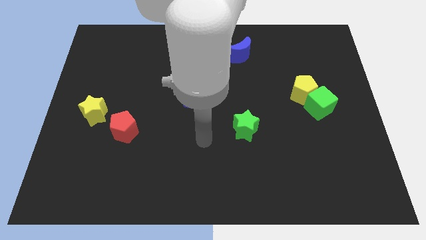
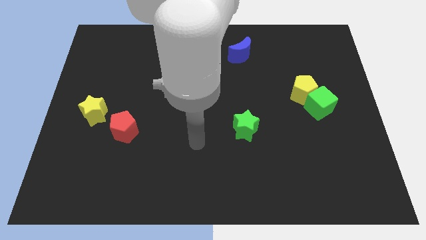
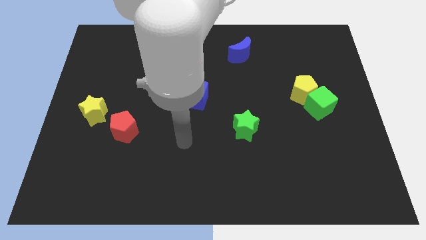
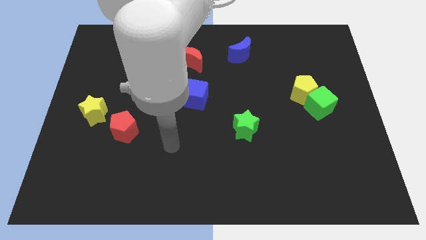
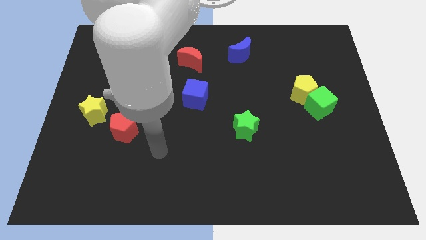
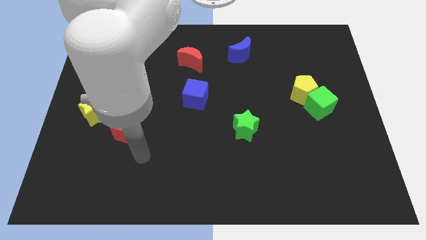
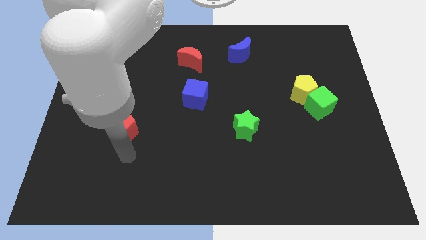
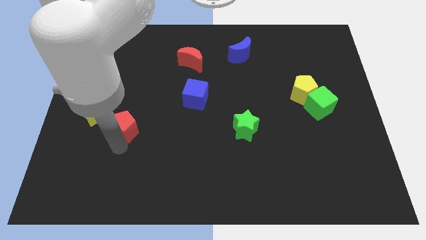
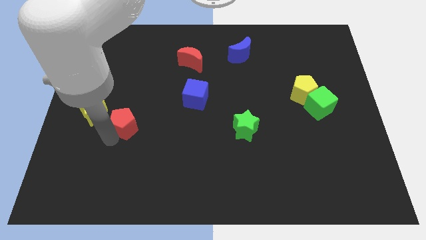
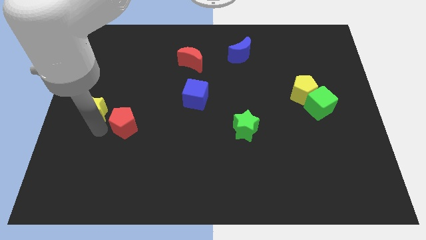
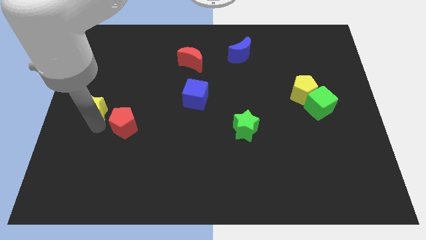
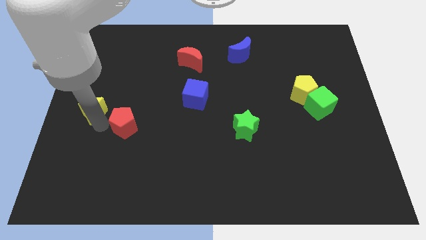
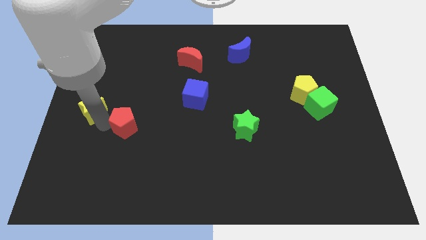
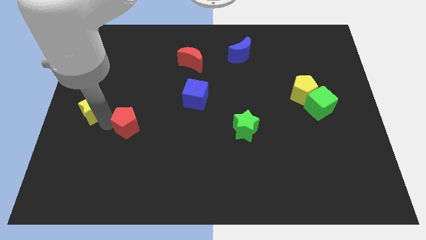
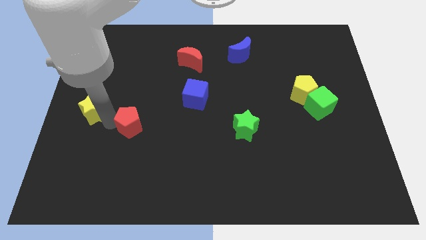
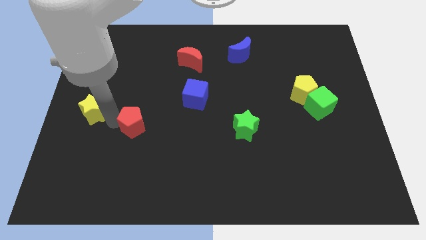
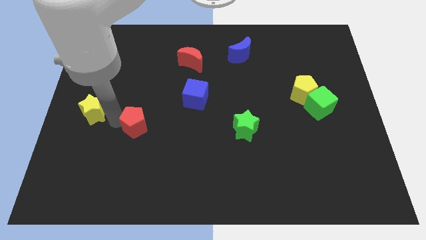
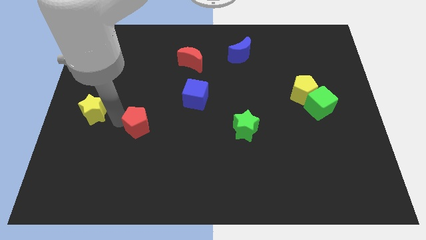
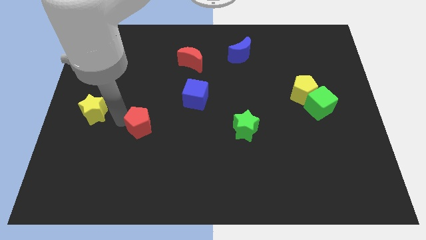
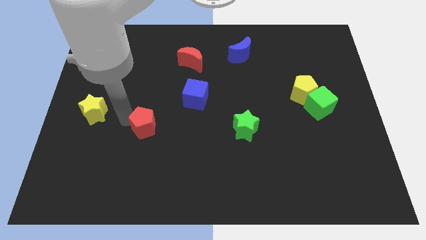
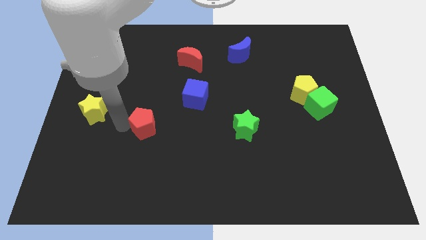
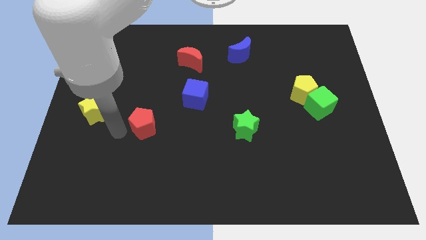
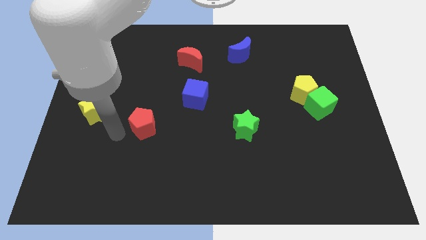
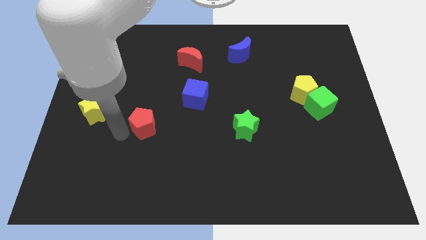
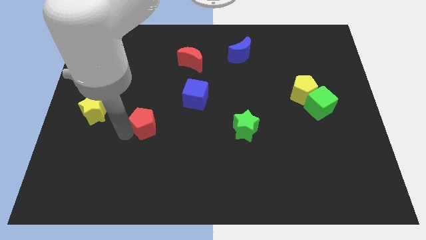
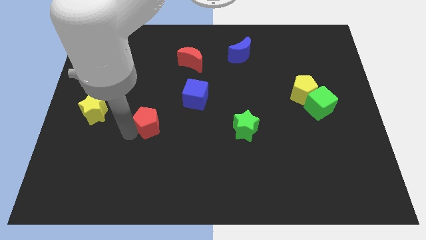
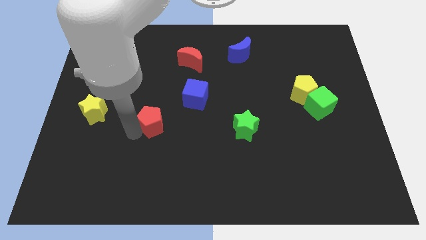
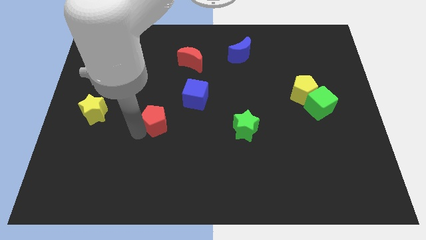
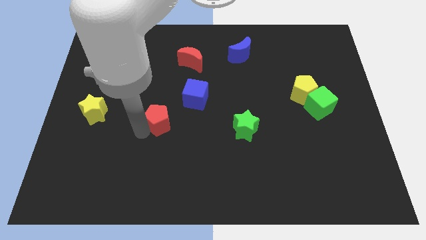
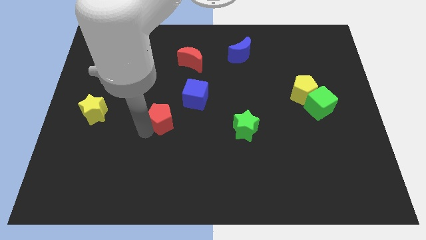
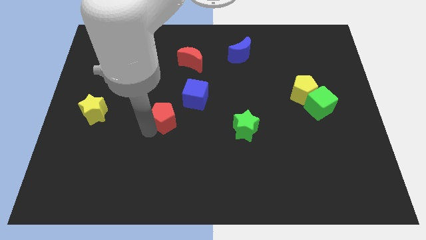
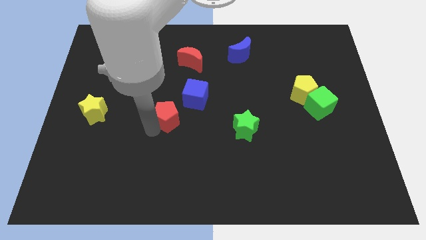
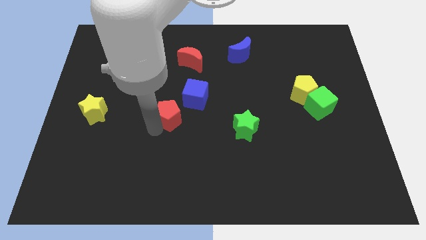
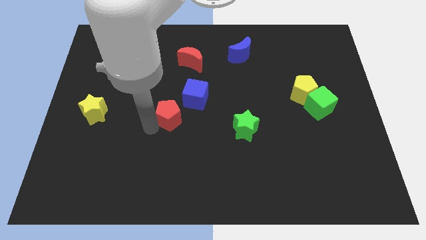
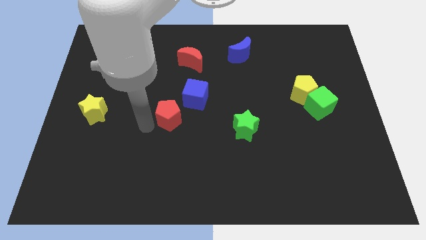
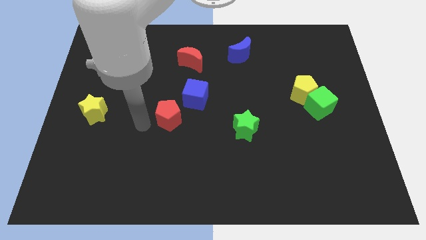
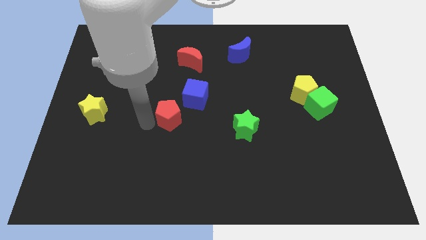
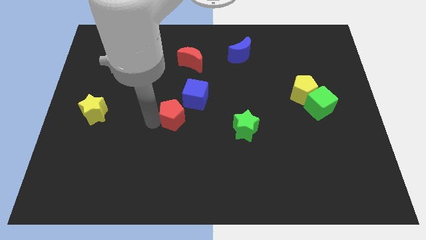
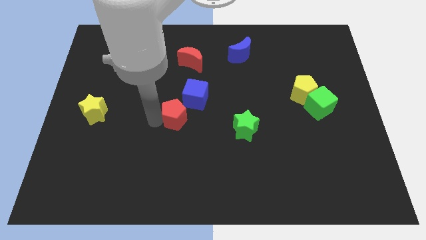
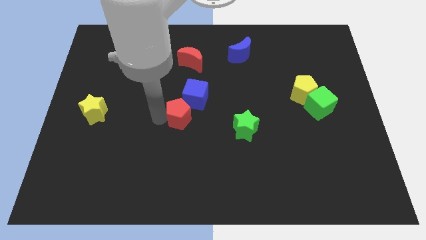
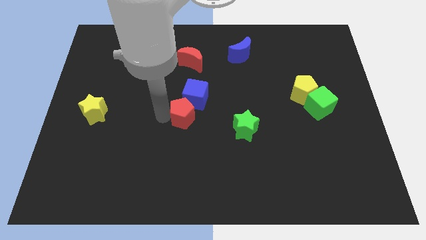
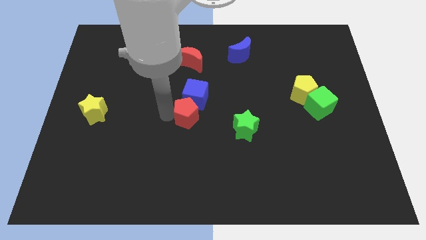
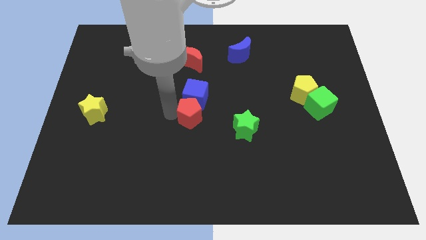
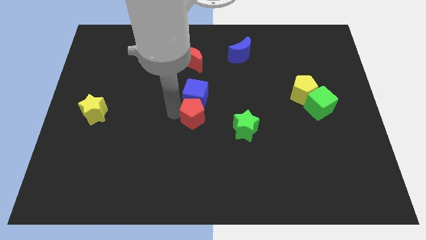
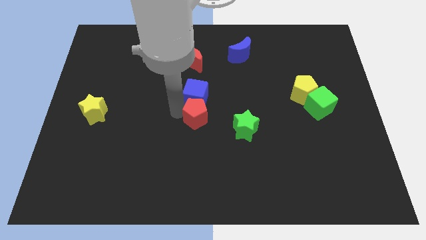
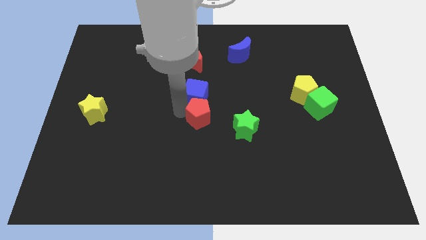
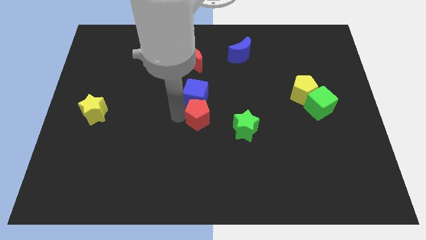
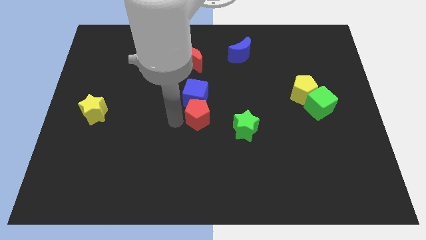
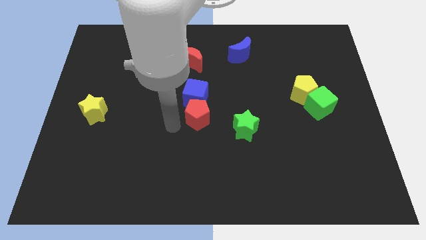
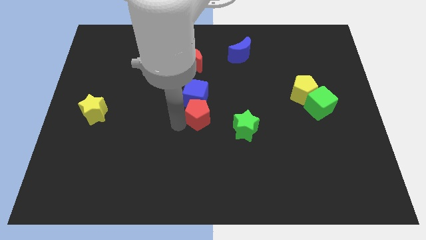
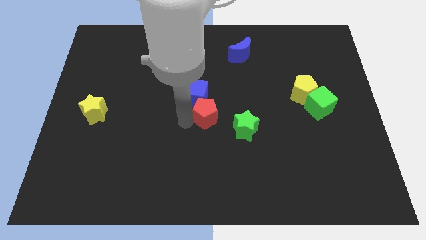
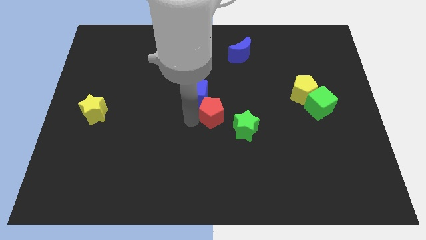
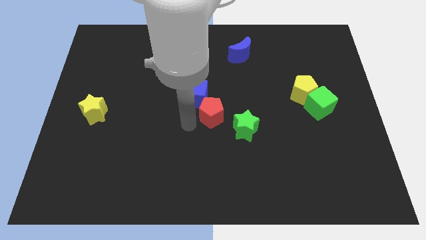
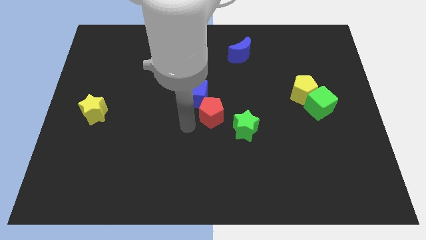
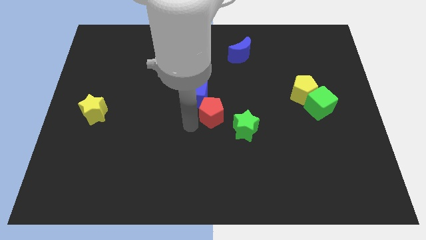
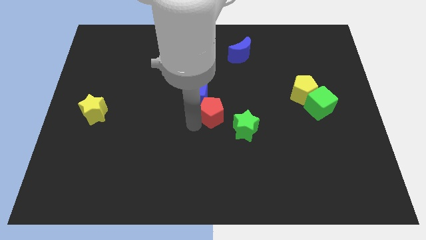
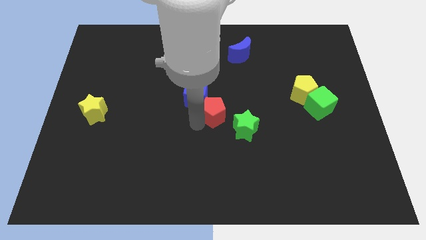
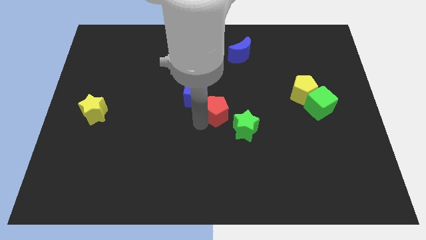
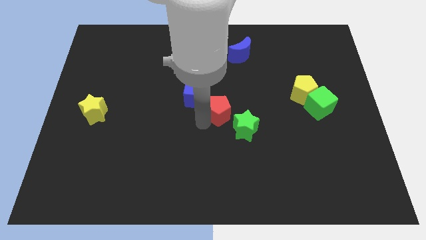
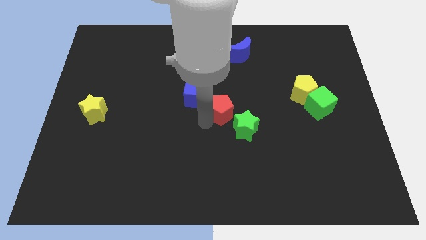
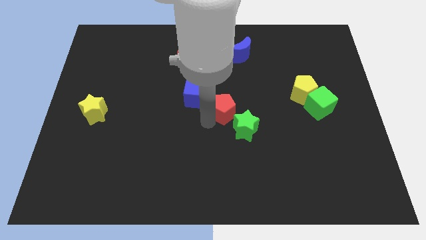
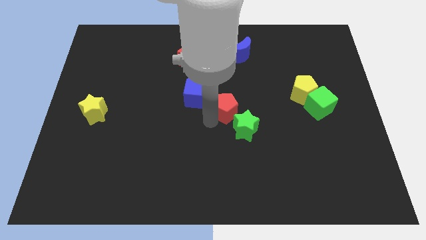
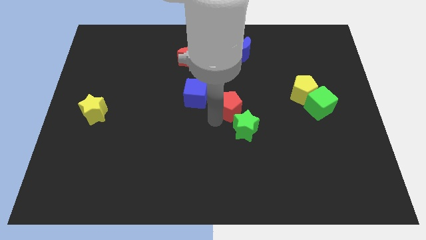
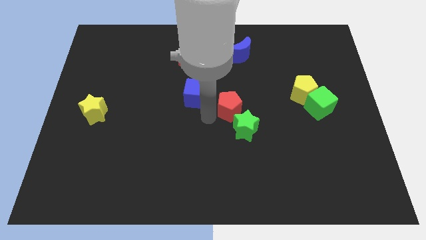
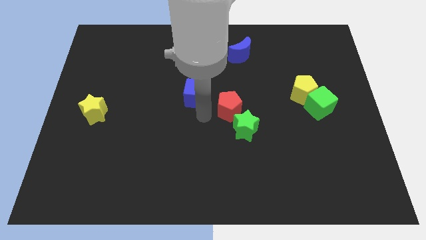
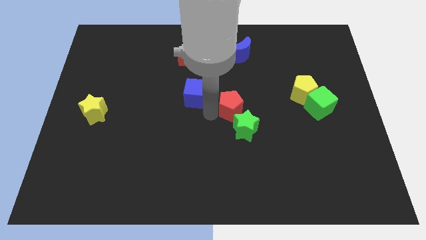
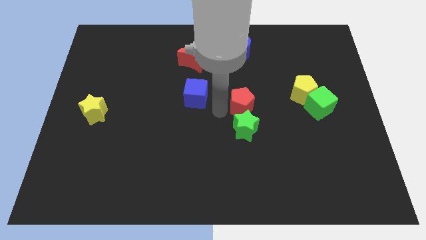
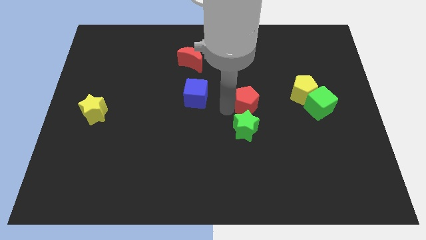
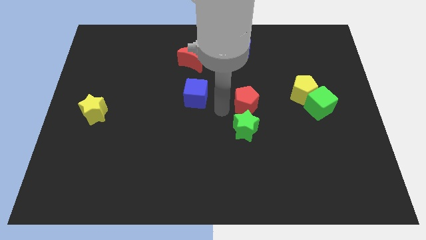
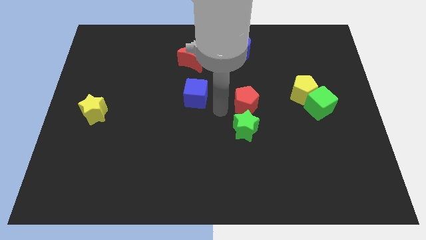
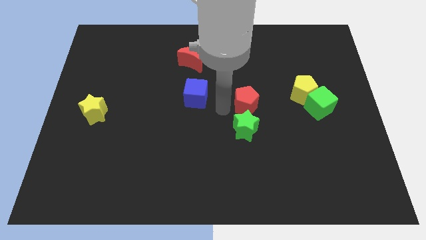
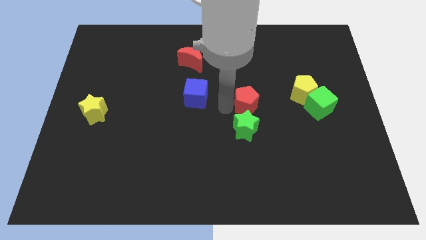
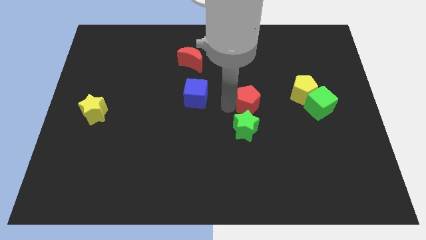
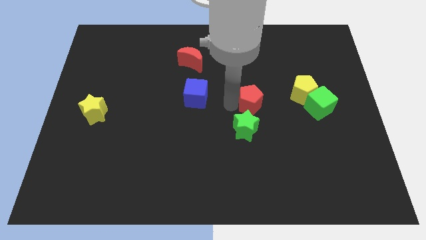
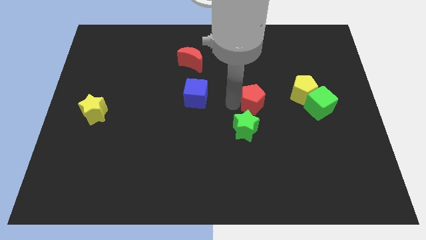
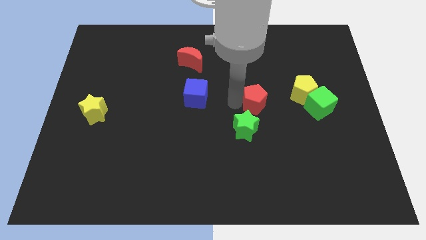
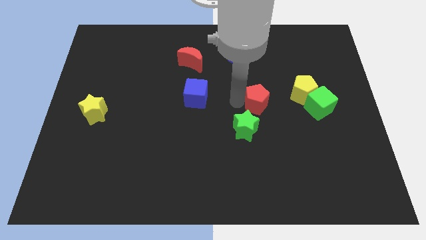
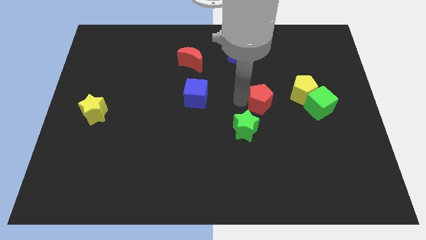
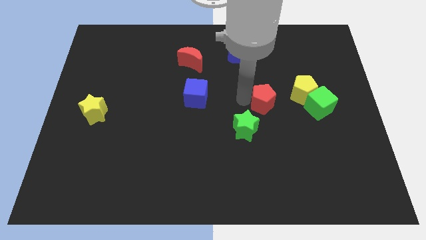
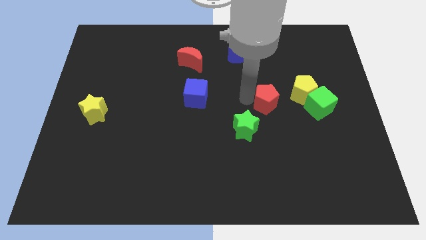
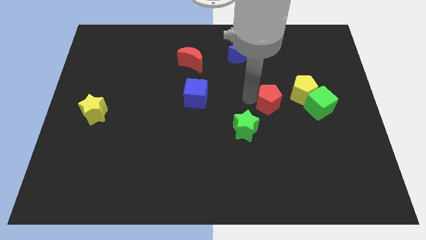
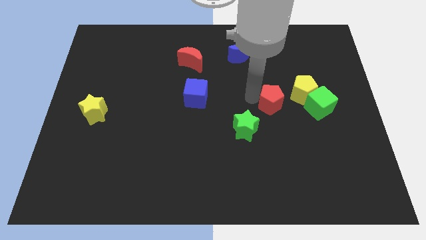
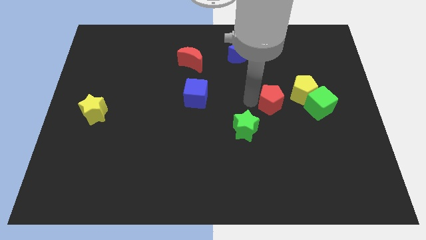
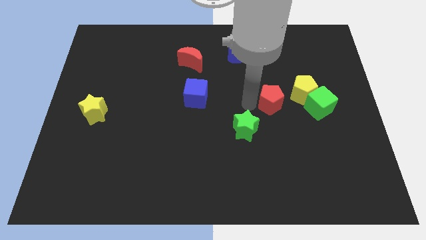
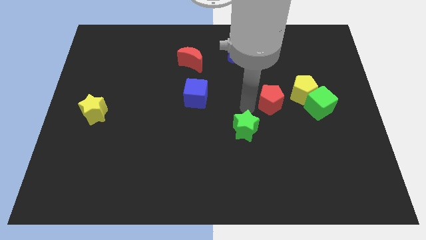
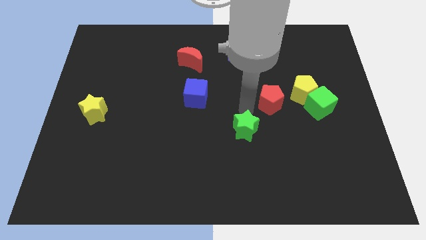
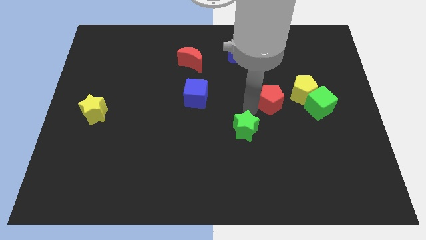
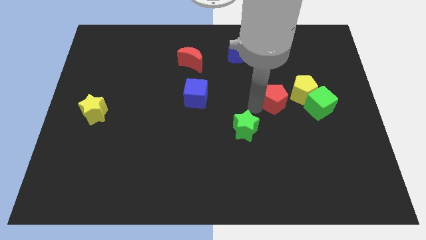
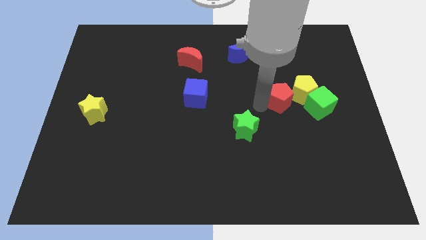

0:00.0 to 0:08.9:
put the red pentagon to the yellow pentagon
